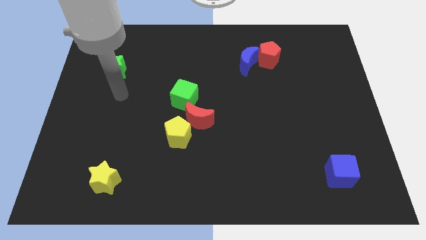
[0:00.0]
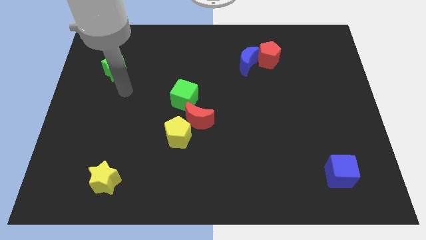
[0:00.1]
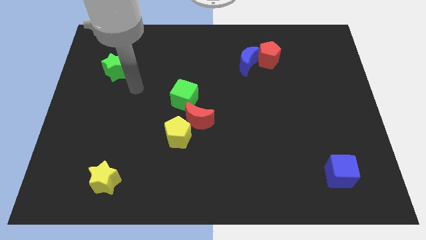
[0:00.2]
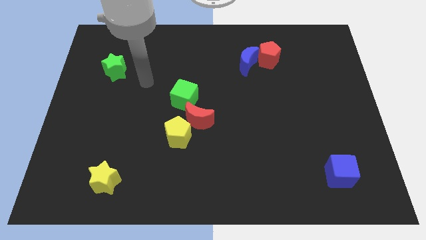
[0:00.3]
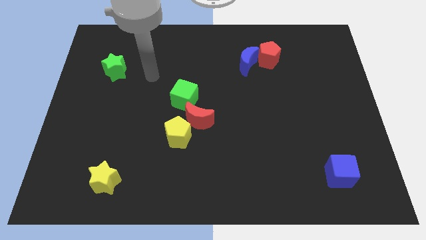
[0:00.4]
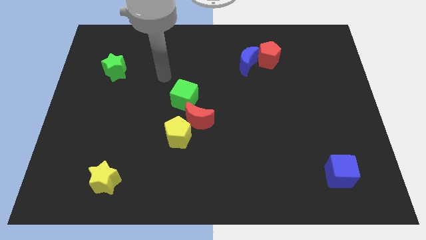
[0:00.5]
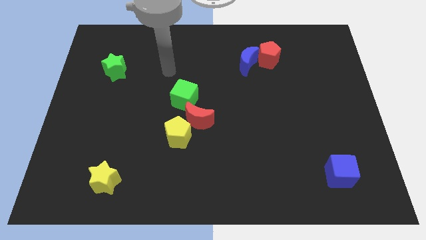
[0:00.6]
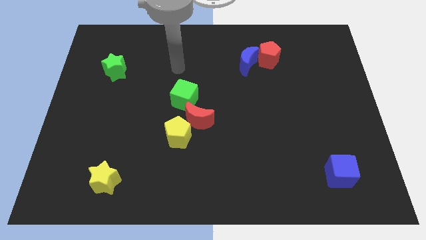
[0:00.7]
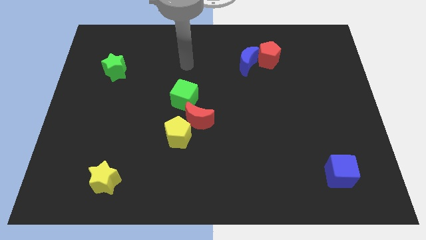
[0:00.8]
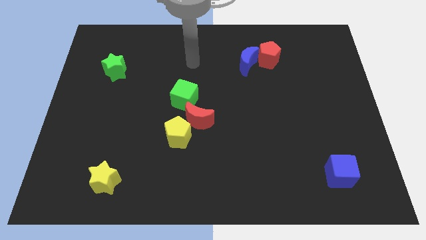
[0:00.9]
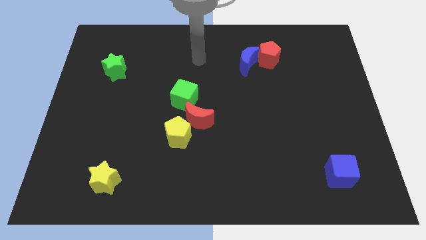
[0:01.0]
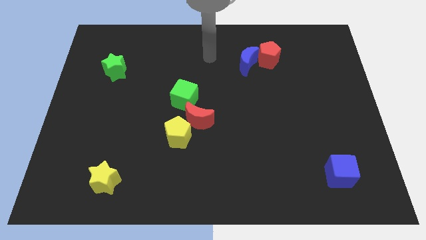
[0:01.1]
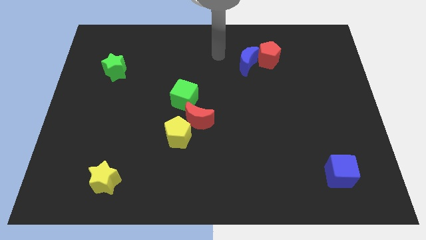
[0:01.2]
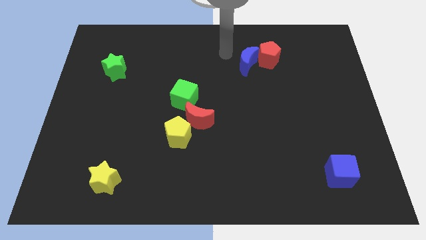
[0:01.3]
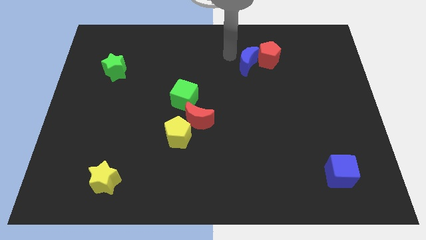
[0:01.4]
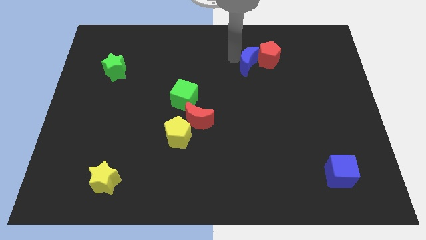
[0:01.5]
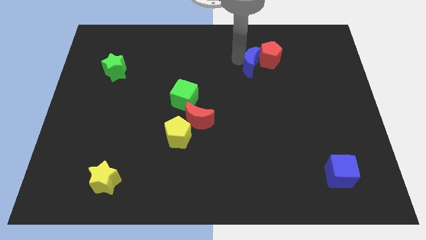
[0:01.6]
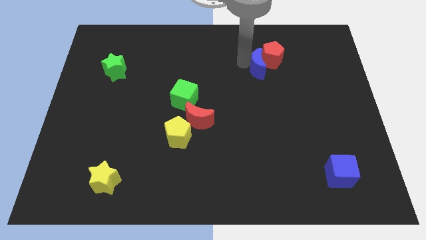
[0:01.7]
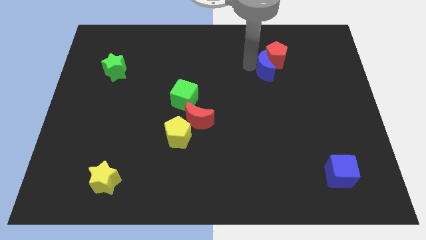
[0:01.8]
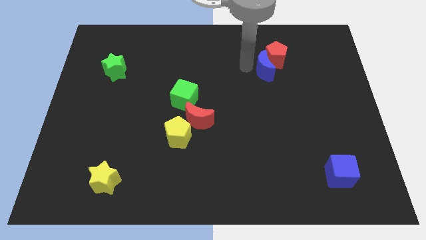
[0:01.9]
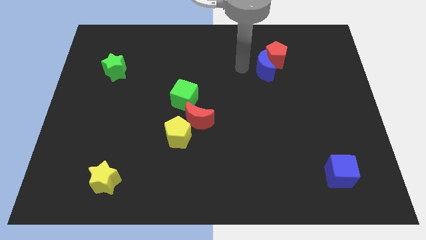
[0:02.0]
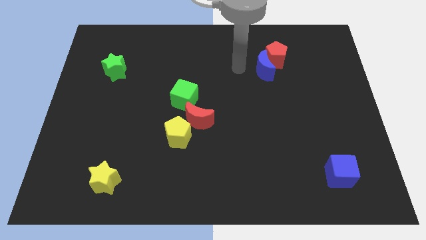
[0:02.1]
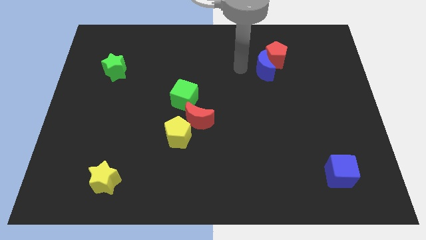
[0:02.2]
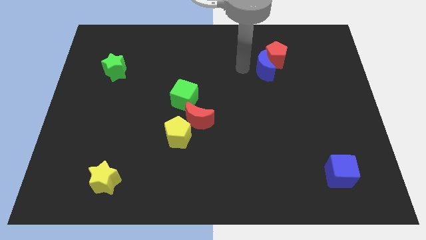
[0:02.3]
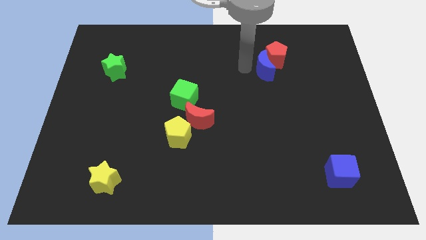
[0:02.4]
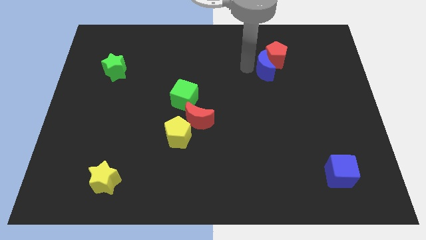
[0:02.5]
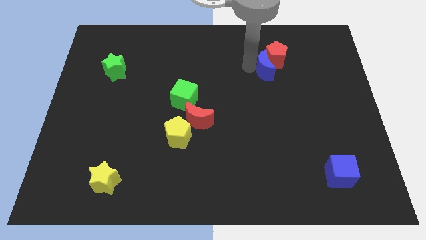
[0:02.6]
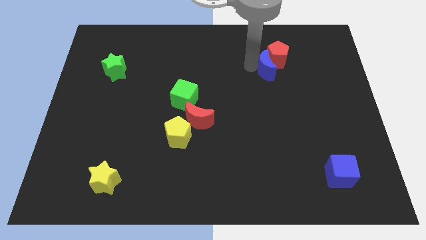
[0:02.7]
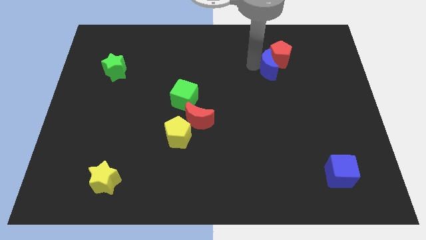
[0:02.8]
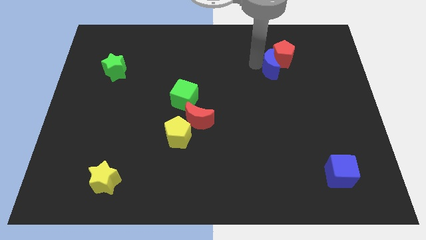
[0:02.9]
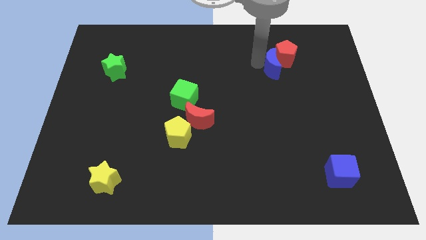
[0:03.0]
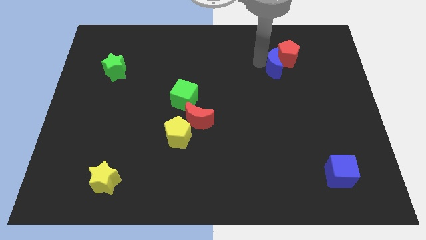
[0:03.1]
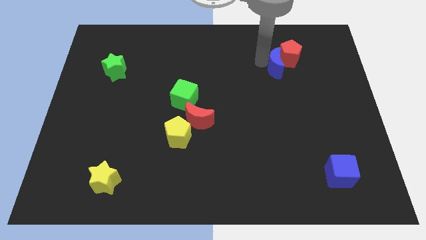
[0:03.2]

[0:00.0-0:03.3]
push the blue moon right a little

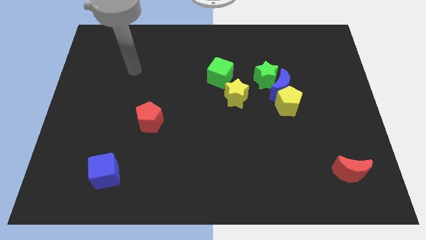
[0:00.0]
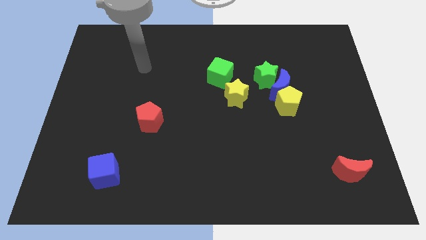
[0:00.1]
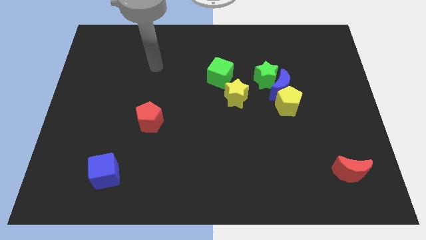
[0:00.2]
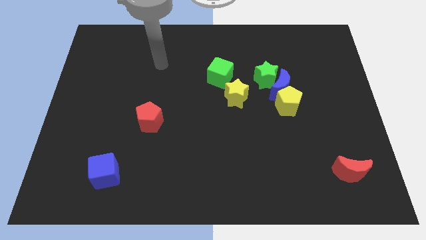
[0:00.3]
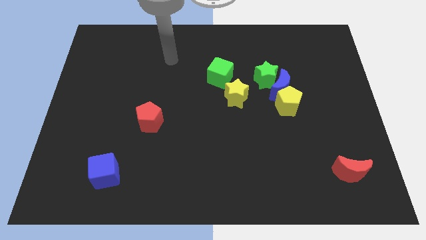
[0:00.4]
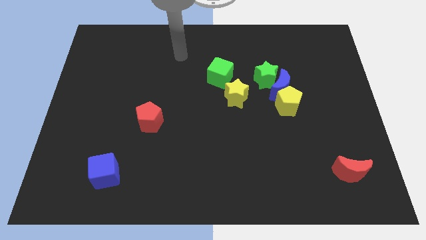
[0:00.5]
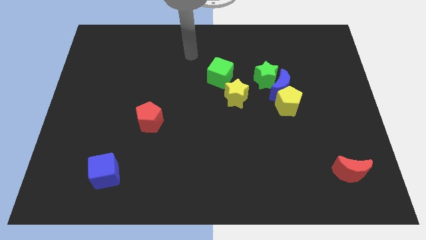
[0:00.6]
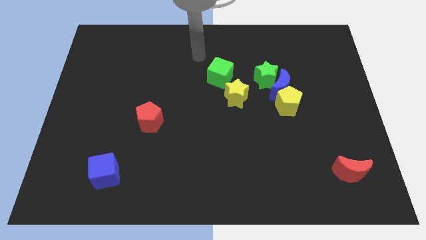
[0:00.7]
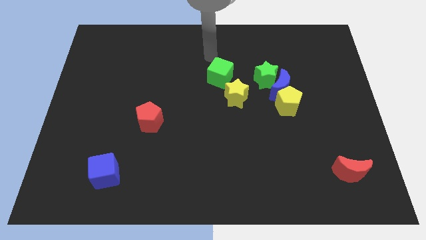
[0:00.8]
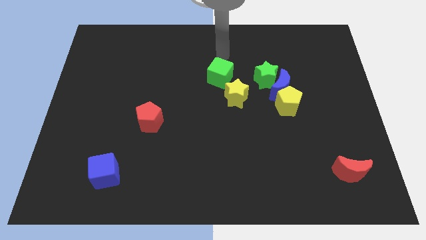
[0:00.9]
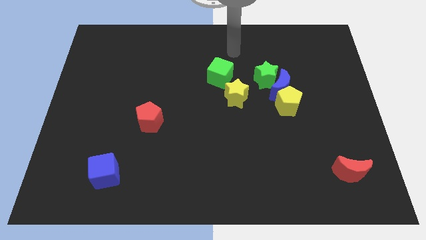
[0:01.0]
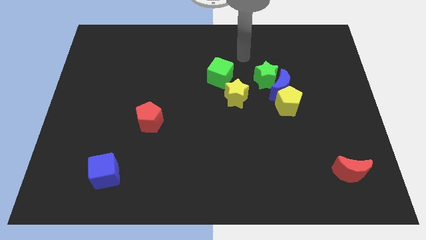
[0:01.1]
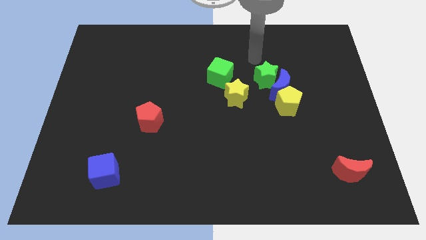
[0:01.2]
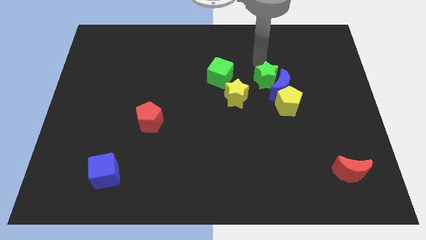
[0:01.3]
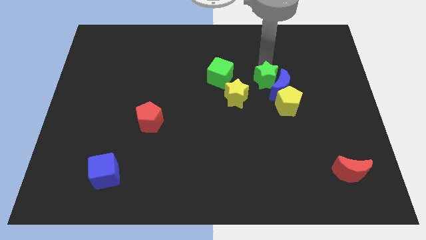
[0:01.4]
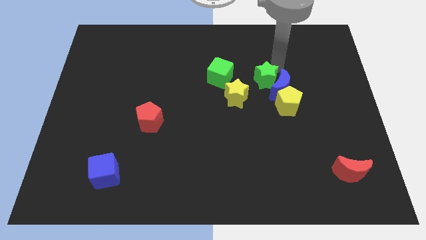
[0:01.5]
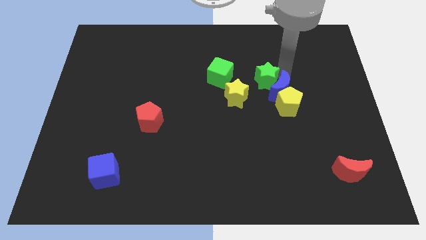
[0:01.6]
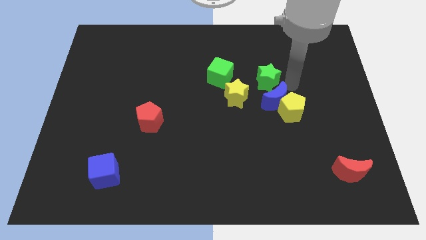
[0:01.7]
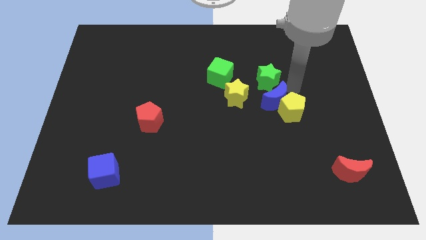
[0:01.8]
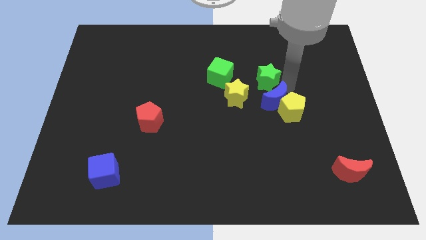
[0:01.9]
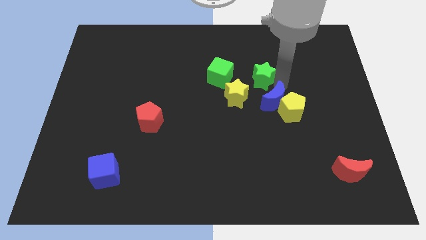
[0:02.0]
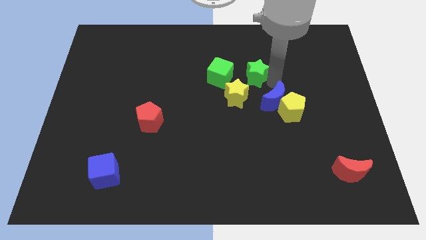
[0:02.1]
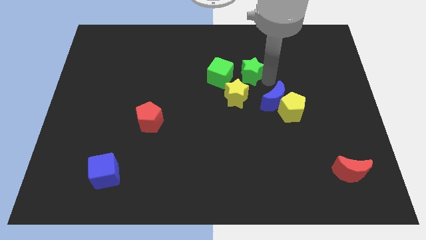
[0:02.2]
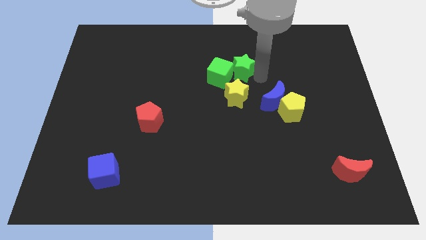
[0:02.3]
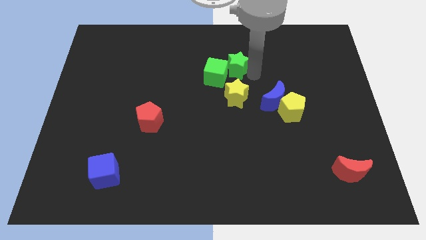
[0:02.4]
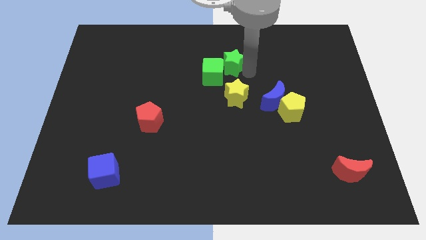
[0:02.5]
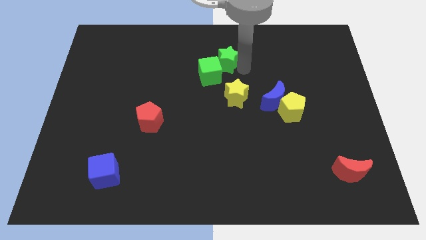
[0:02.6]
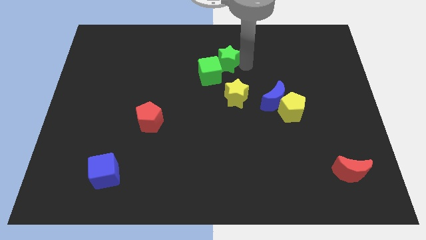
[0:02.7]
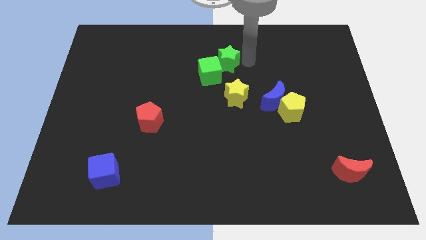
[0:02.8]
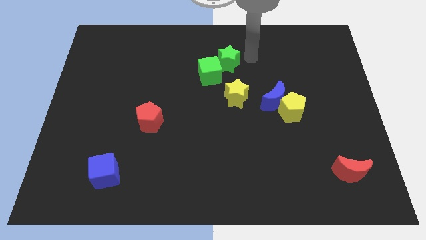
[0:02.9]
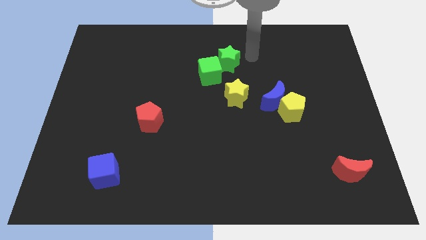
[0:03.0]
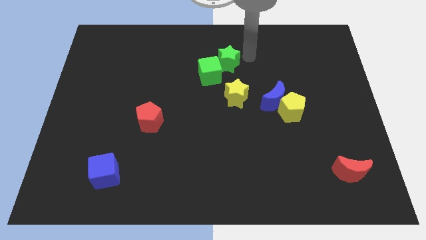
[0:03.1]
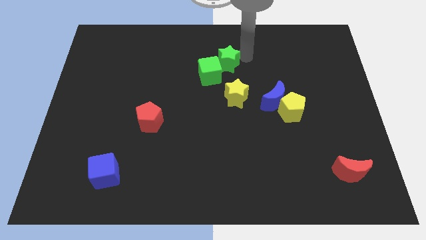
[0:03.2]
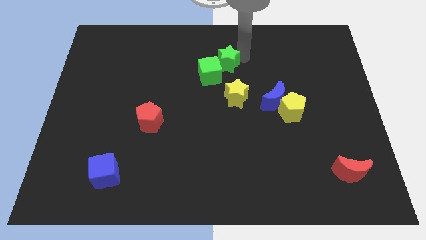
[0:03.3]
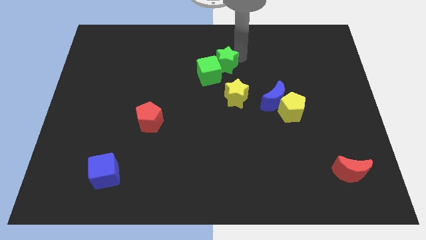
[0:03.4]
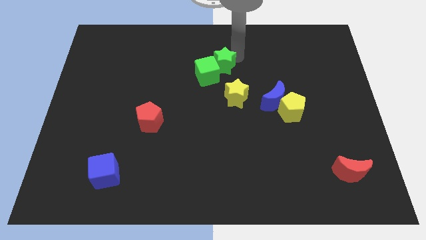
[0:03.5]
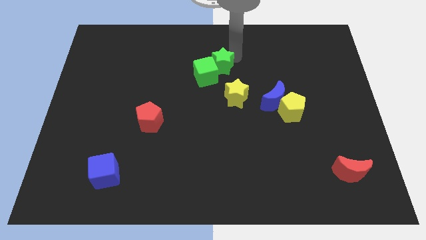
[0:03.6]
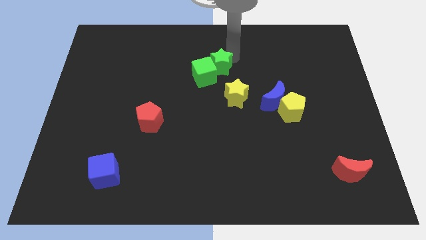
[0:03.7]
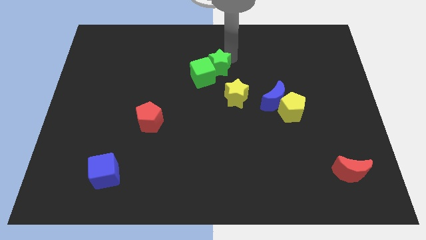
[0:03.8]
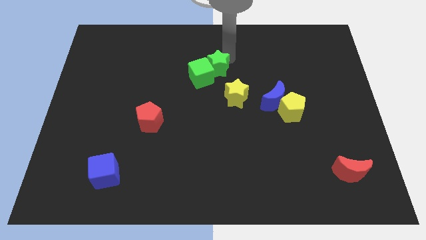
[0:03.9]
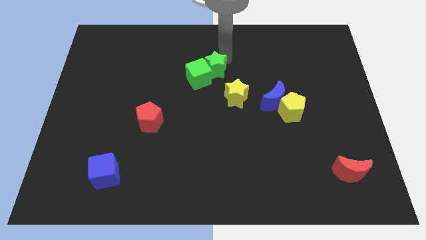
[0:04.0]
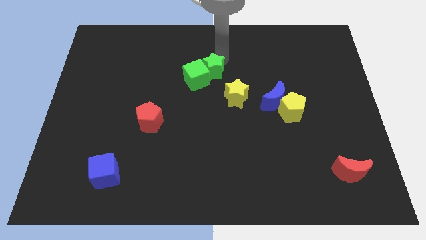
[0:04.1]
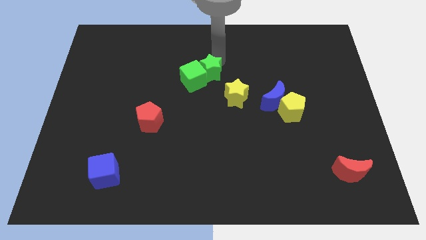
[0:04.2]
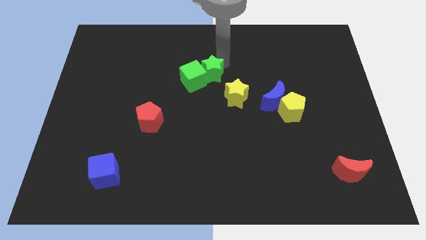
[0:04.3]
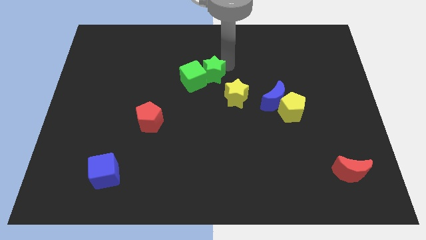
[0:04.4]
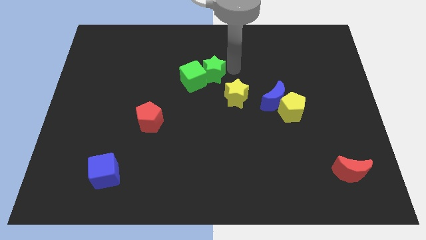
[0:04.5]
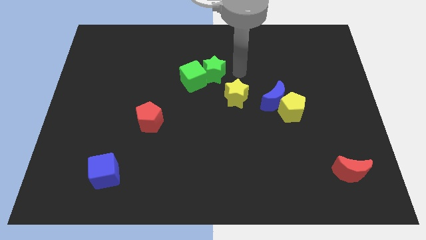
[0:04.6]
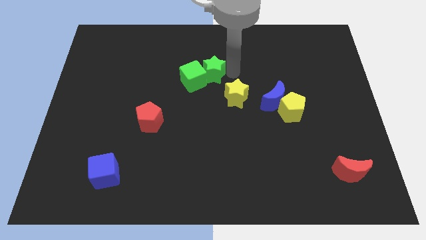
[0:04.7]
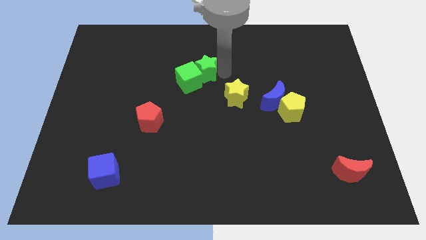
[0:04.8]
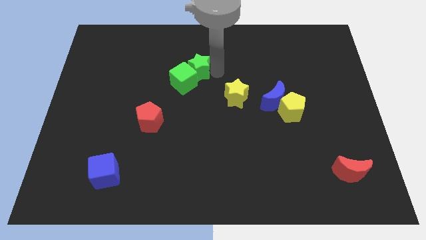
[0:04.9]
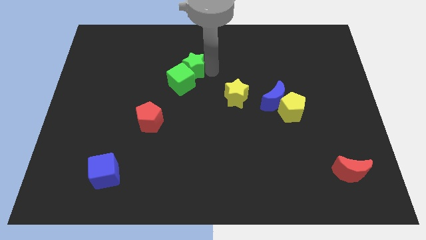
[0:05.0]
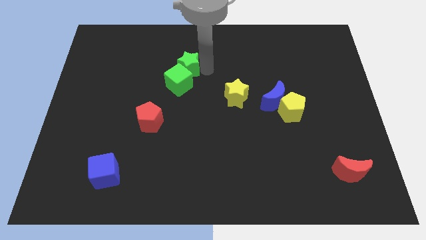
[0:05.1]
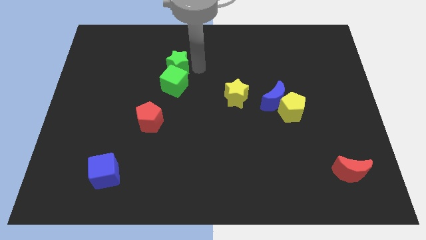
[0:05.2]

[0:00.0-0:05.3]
push the green star to the left
